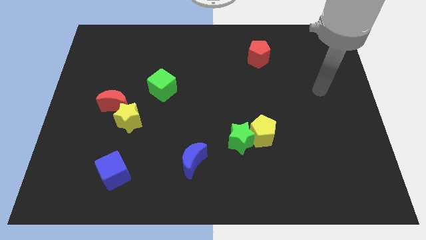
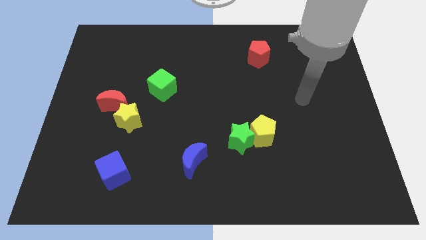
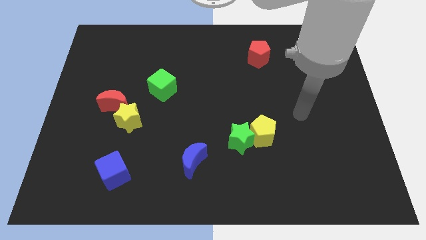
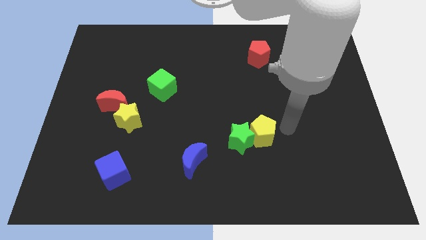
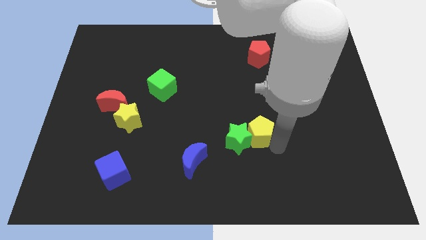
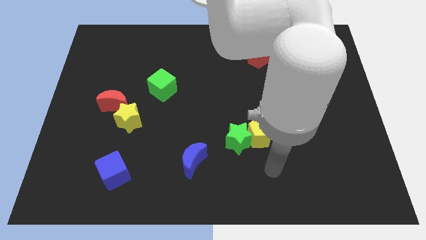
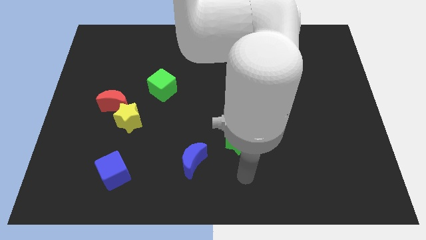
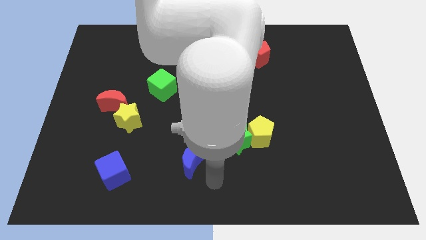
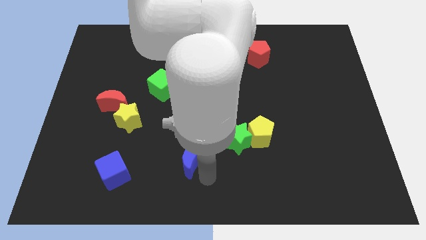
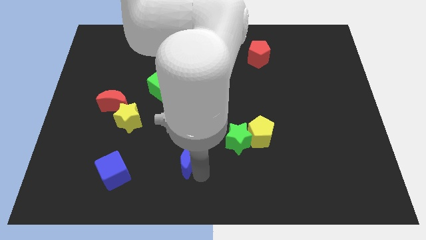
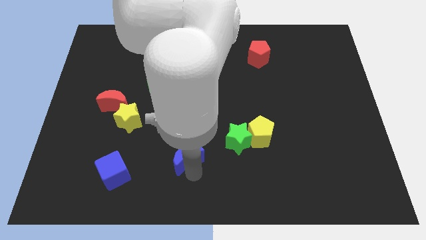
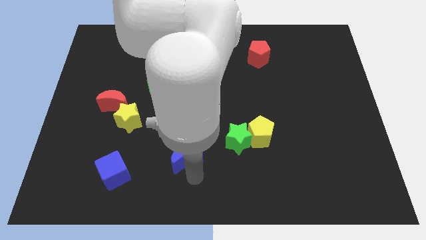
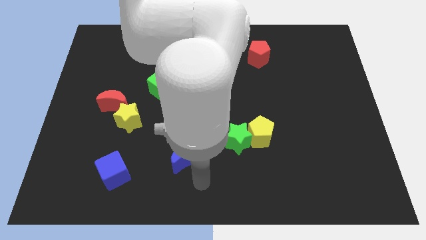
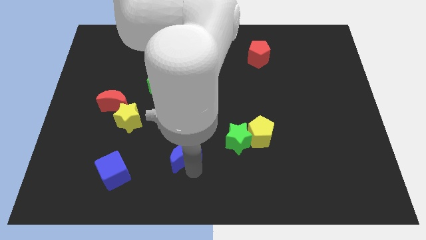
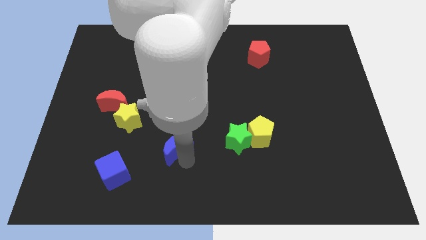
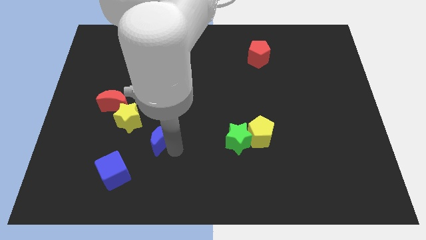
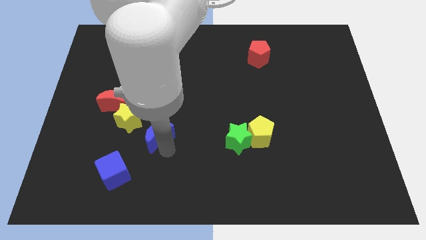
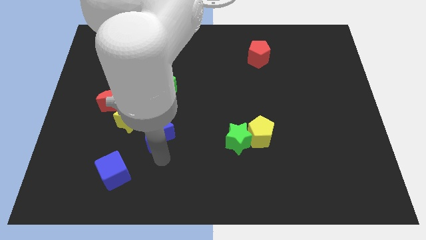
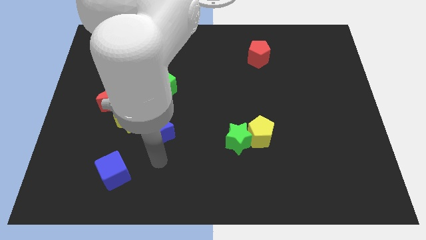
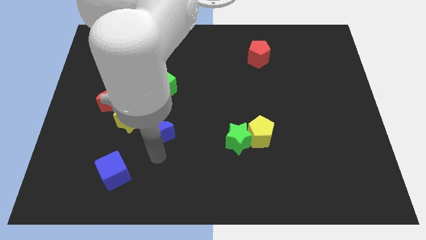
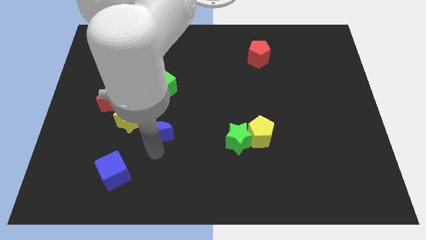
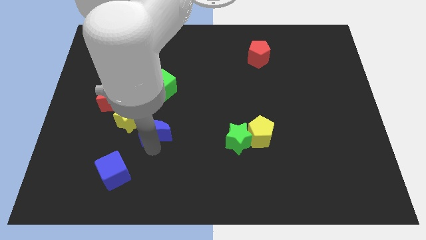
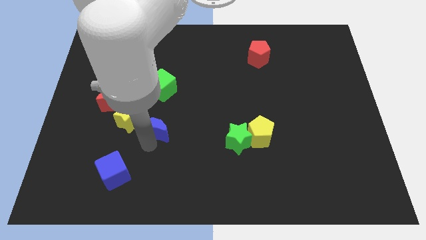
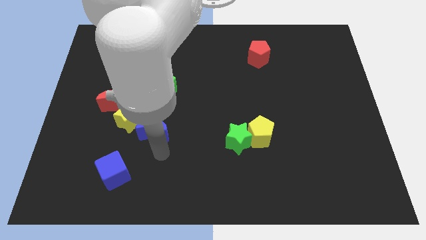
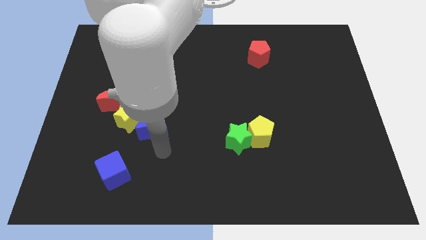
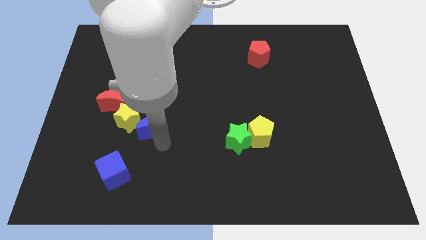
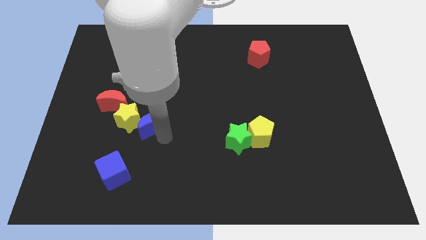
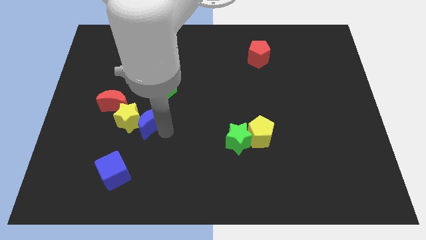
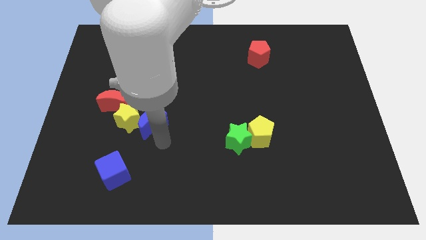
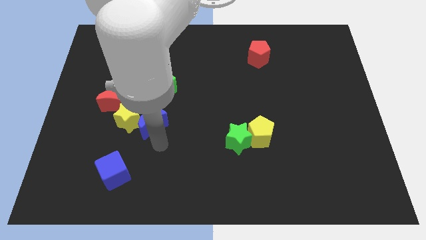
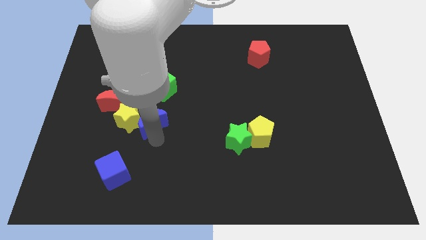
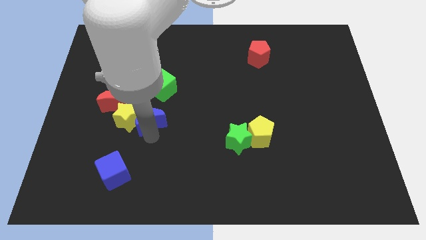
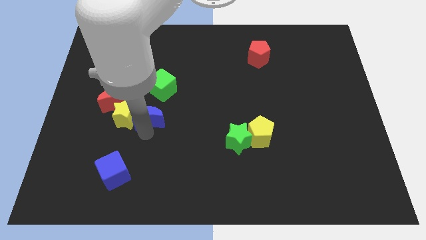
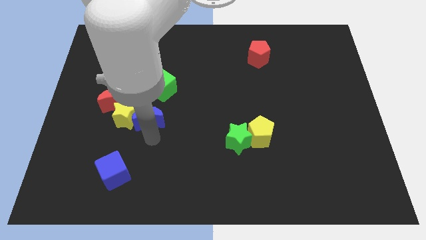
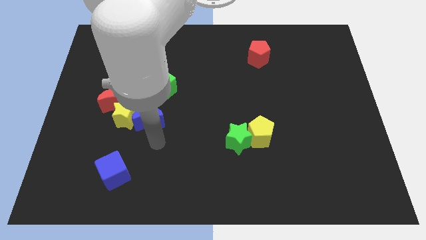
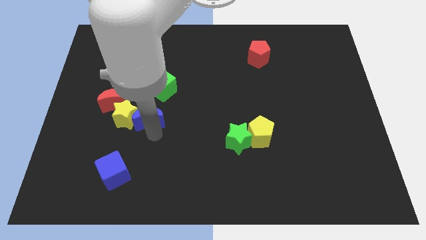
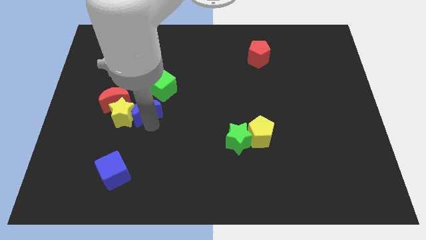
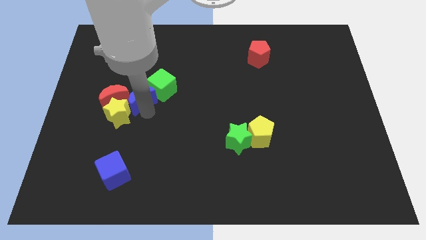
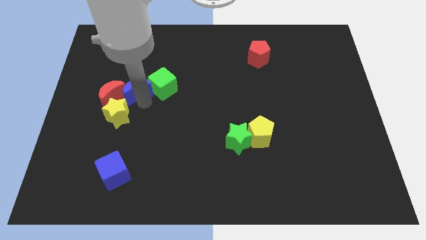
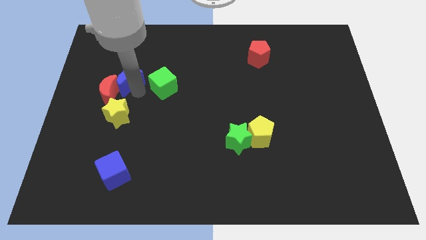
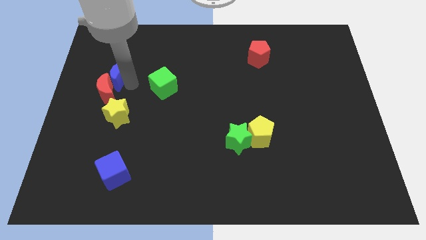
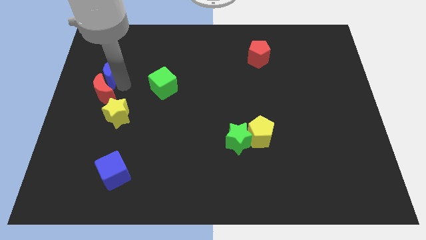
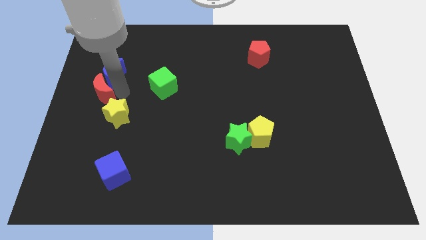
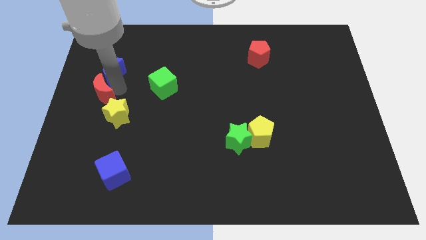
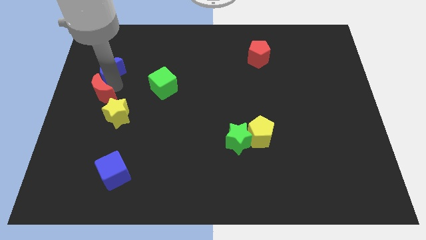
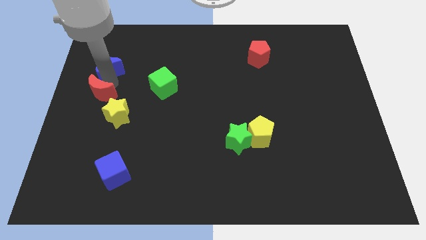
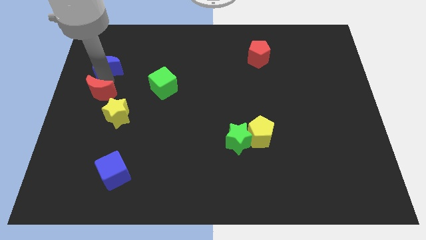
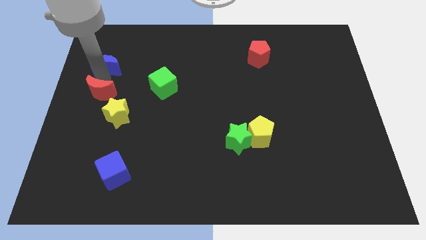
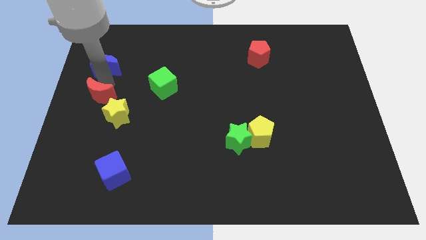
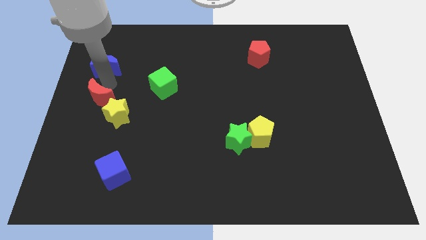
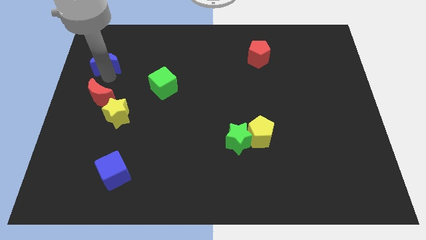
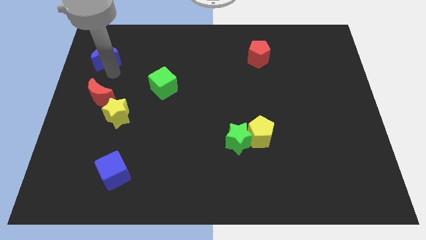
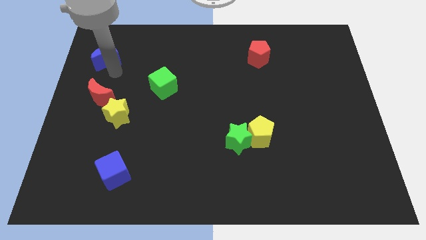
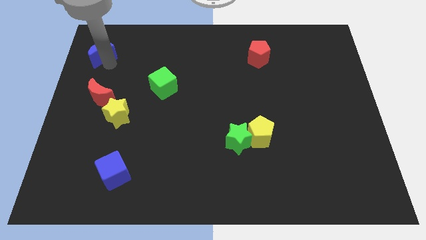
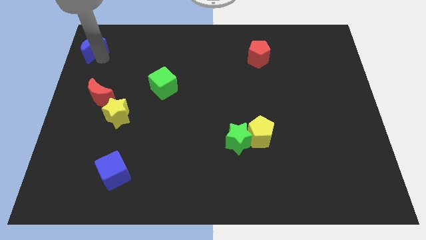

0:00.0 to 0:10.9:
move the blue moon to the top left

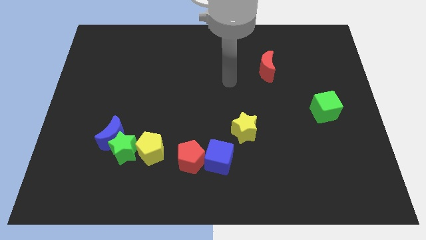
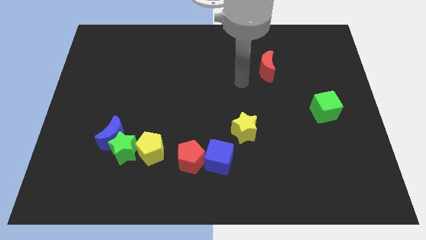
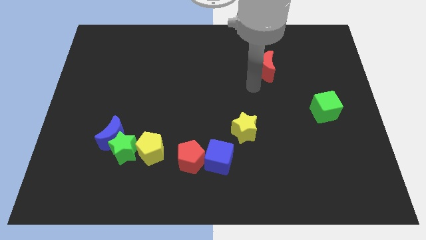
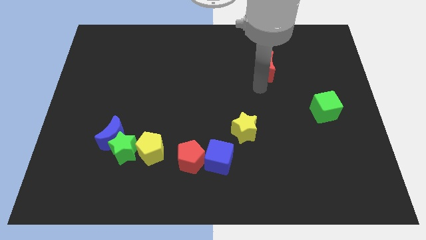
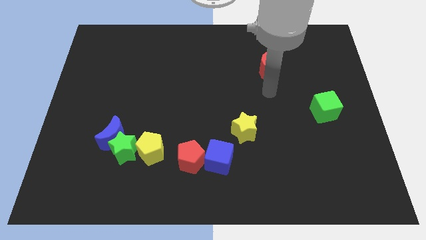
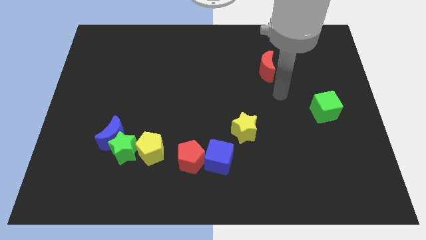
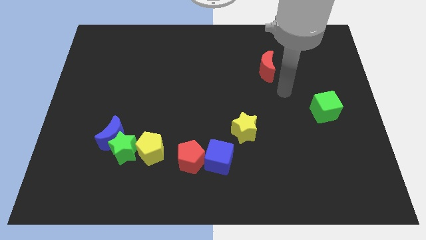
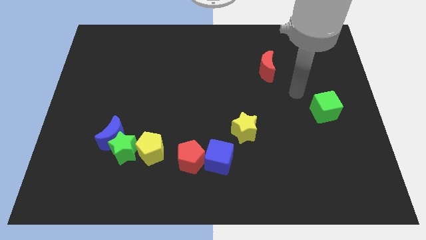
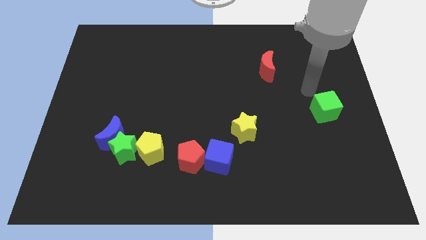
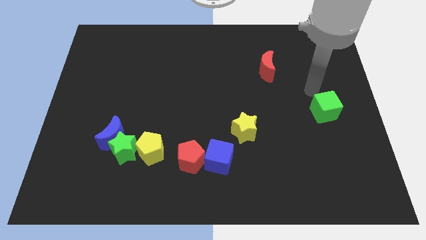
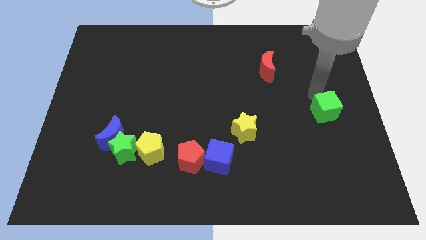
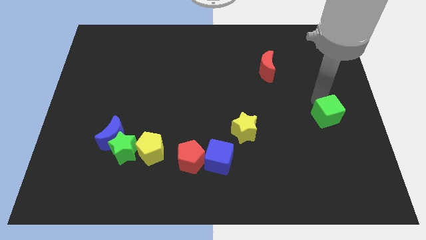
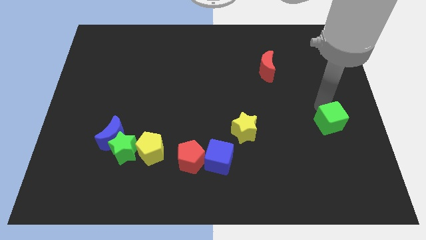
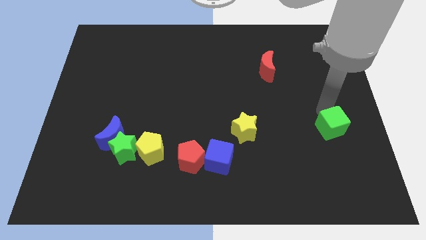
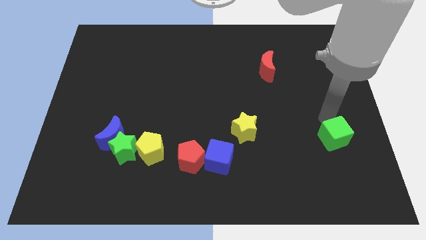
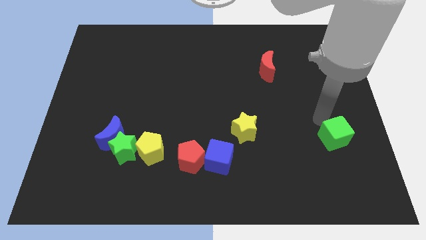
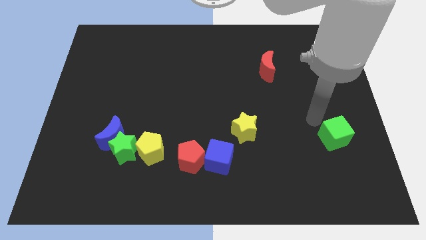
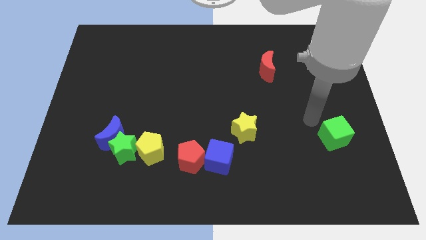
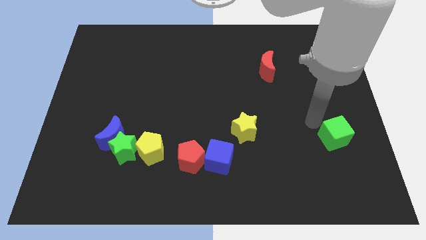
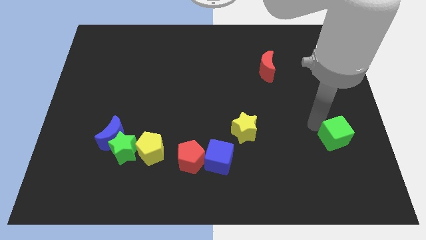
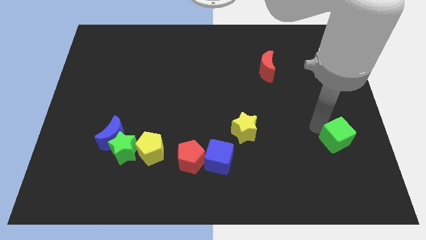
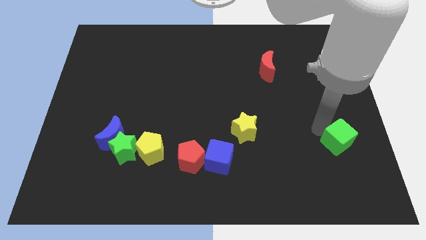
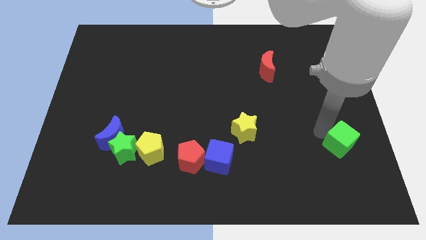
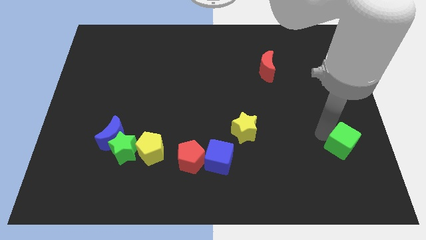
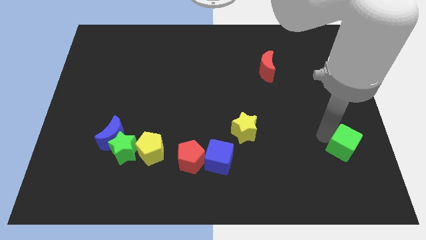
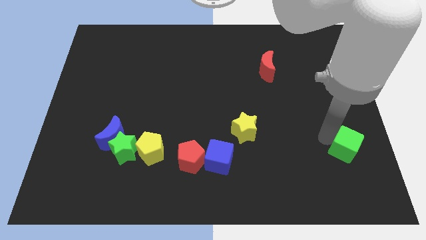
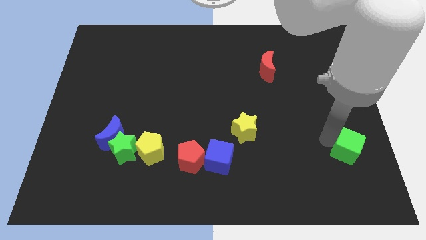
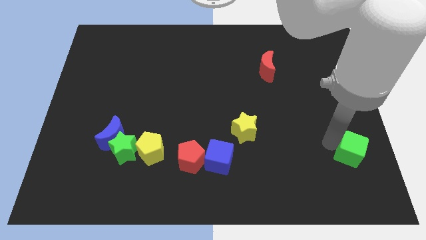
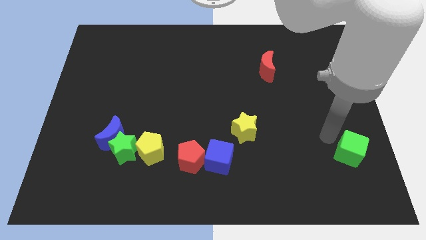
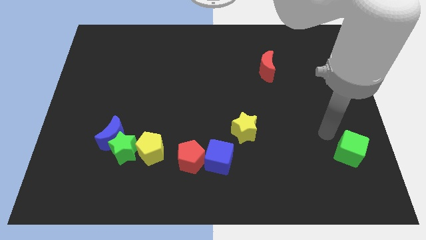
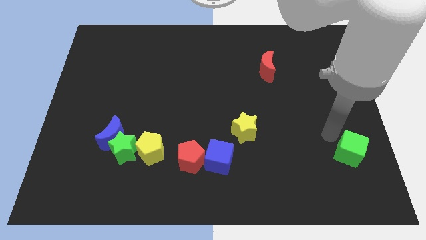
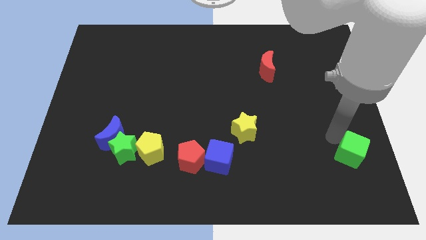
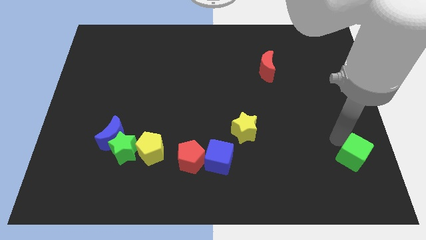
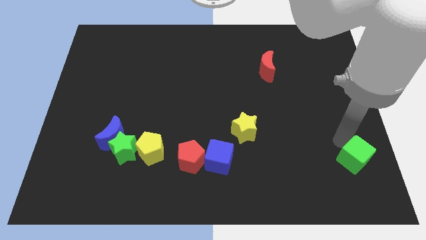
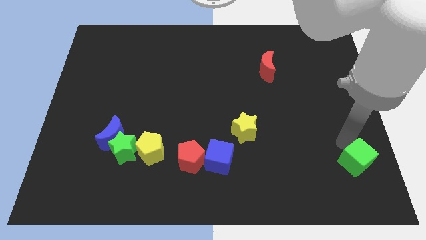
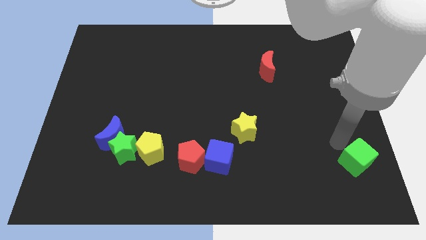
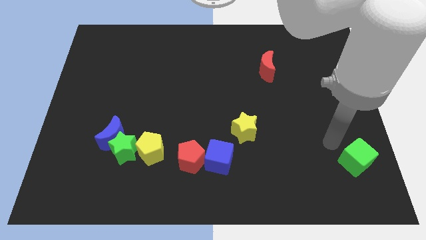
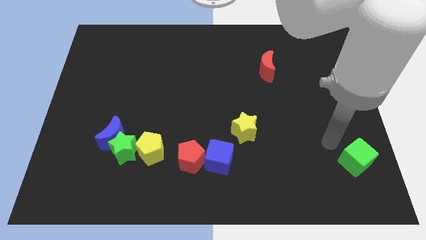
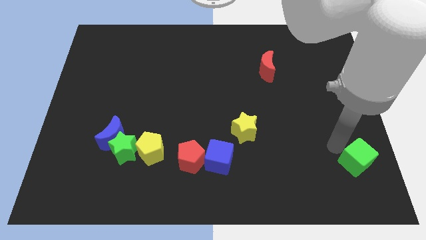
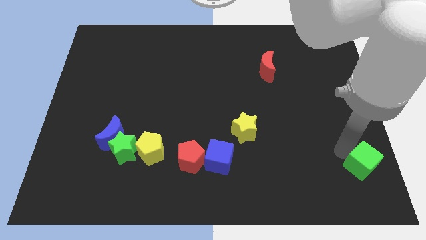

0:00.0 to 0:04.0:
put the green cube to the bottom right
